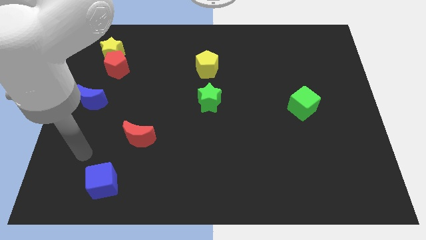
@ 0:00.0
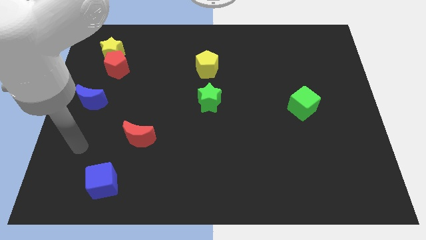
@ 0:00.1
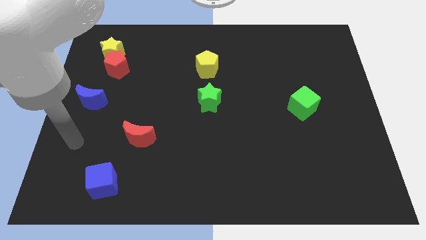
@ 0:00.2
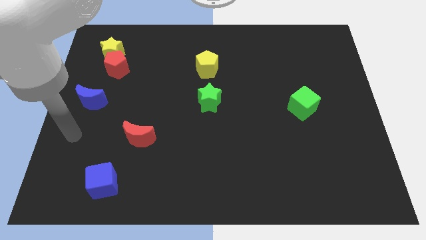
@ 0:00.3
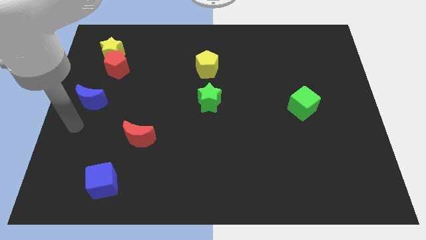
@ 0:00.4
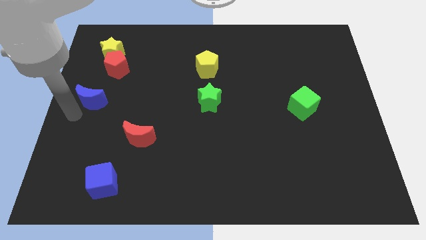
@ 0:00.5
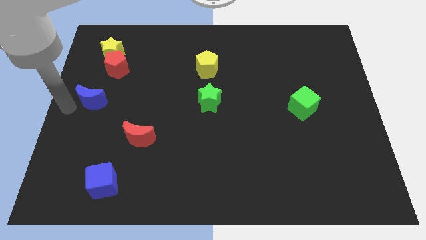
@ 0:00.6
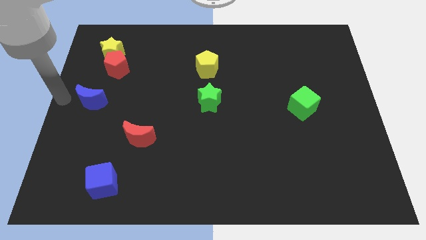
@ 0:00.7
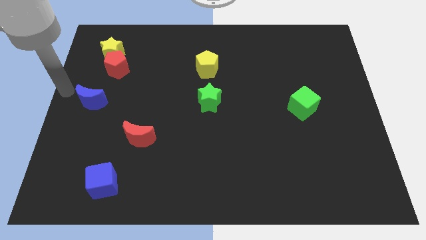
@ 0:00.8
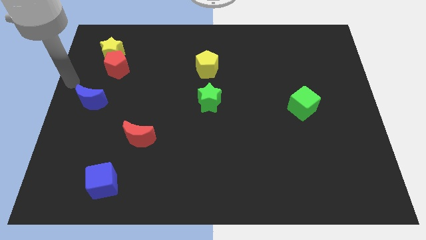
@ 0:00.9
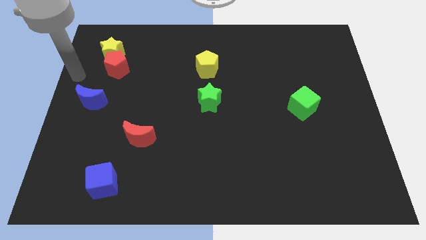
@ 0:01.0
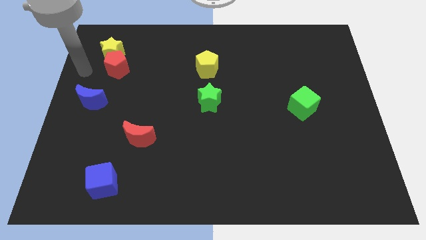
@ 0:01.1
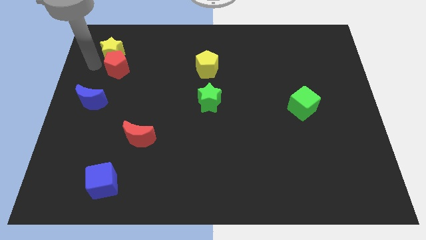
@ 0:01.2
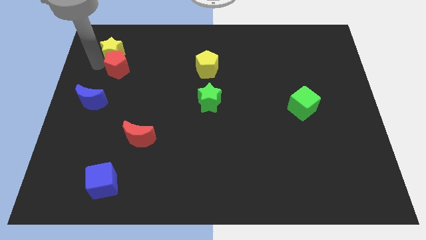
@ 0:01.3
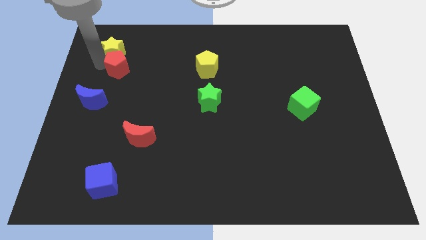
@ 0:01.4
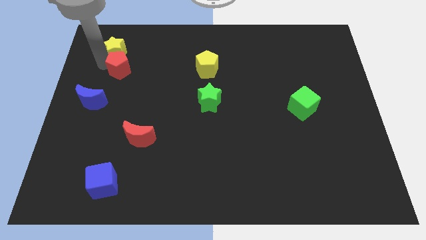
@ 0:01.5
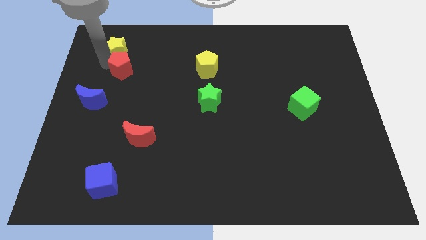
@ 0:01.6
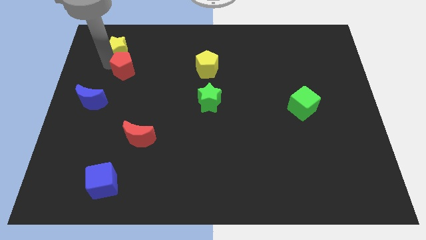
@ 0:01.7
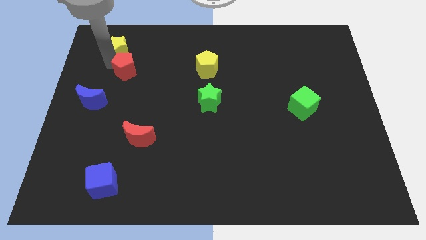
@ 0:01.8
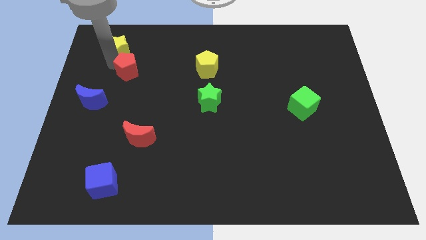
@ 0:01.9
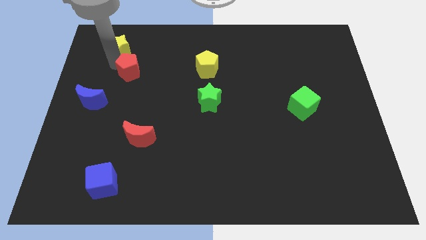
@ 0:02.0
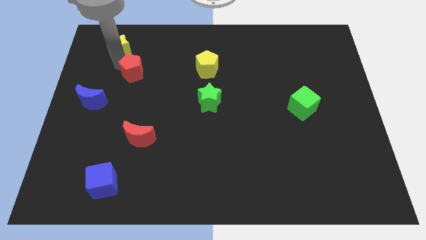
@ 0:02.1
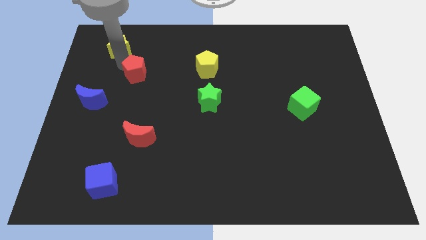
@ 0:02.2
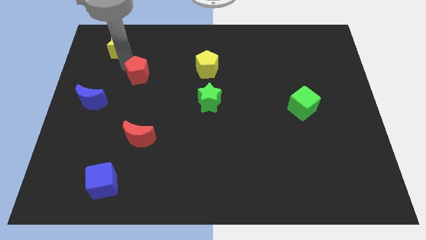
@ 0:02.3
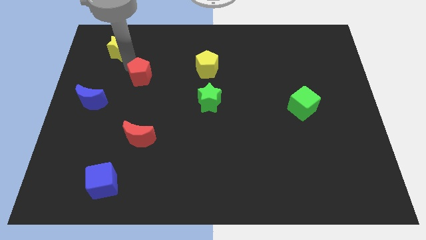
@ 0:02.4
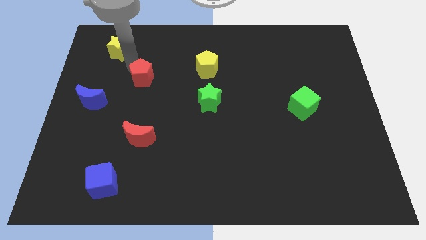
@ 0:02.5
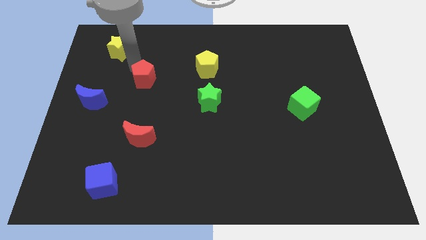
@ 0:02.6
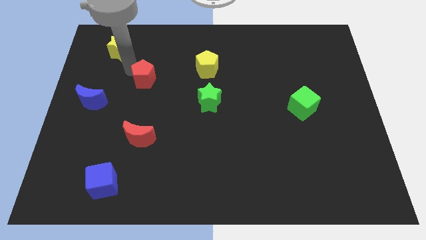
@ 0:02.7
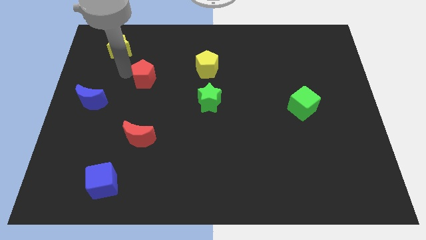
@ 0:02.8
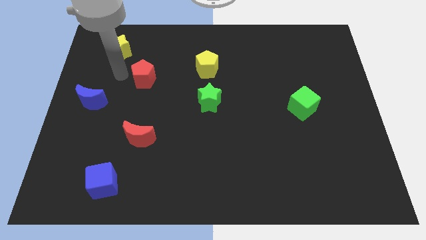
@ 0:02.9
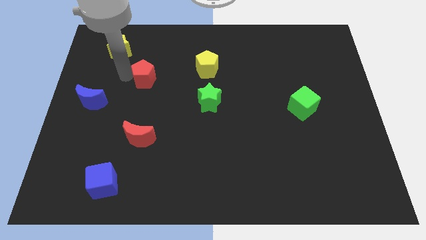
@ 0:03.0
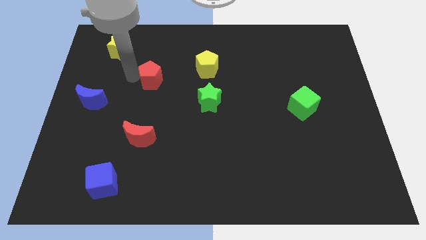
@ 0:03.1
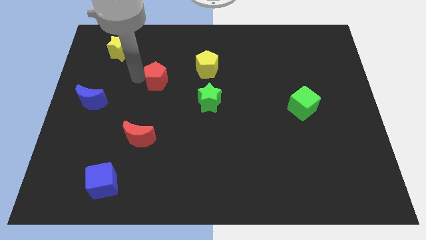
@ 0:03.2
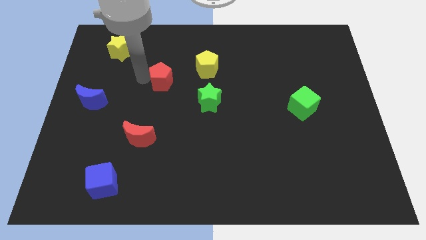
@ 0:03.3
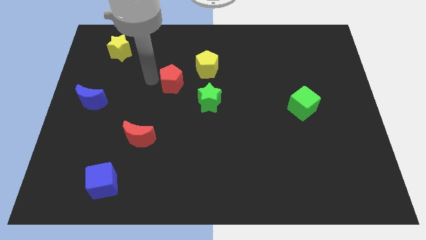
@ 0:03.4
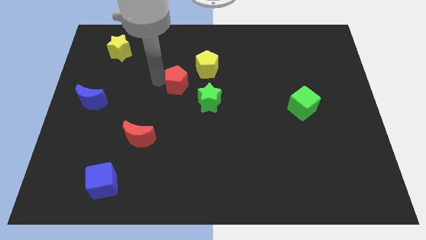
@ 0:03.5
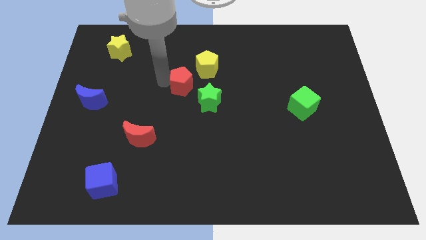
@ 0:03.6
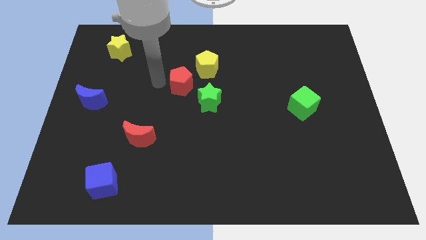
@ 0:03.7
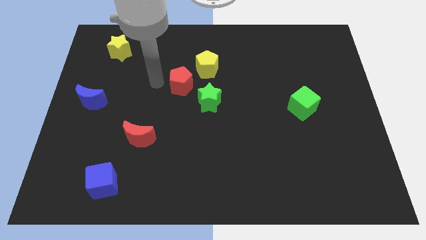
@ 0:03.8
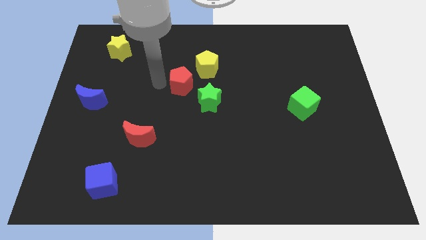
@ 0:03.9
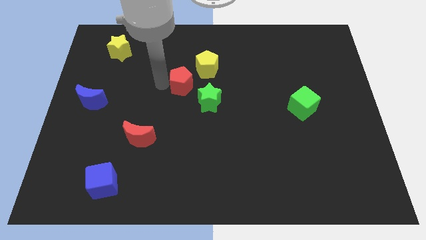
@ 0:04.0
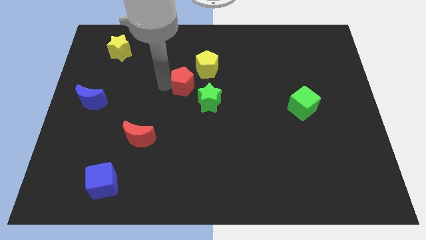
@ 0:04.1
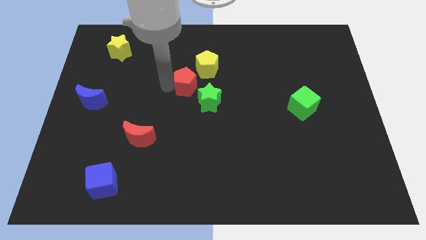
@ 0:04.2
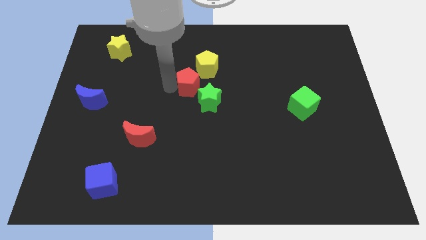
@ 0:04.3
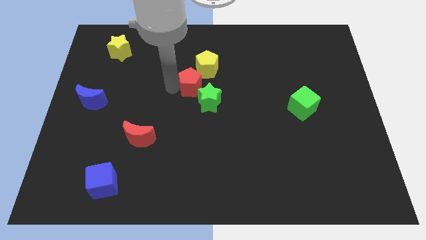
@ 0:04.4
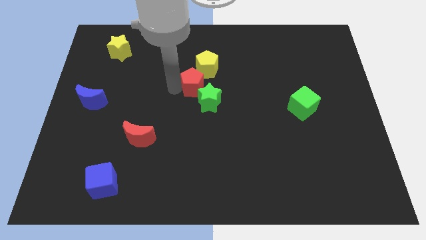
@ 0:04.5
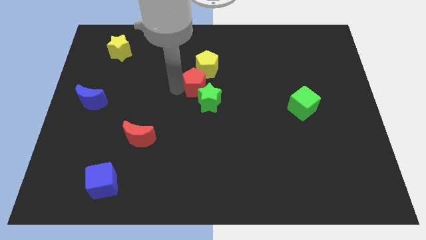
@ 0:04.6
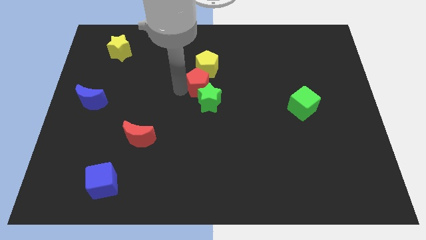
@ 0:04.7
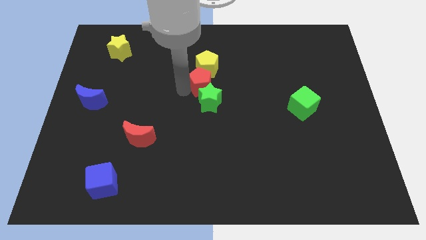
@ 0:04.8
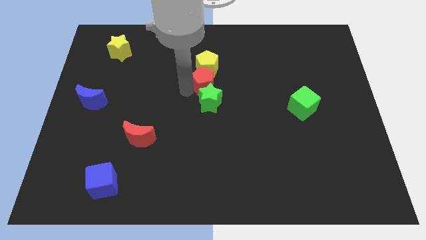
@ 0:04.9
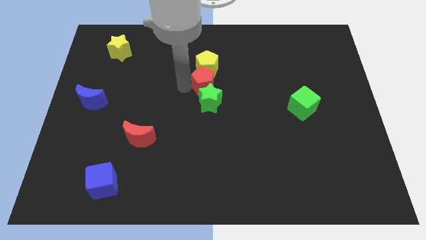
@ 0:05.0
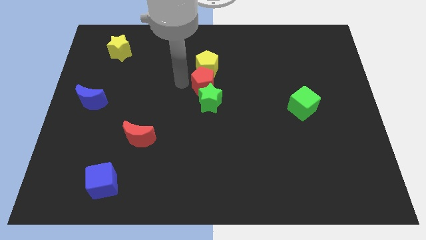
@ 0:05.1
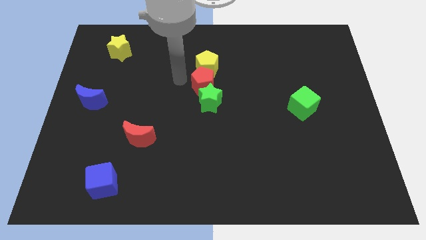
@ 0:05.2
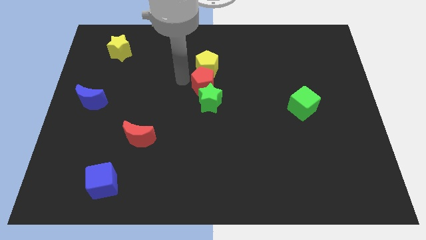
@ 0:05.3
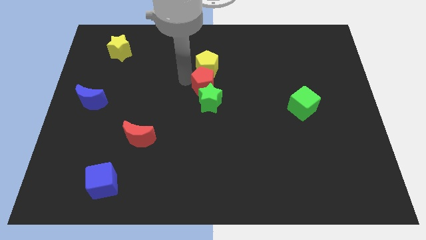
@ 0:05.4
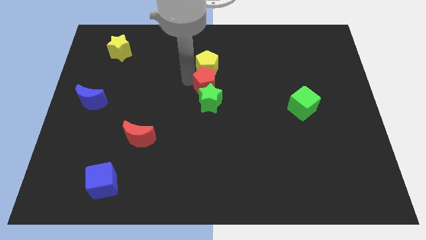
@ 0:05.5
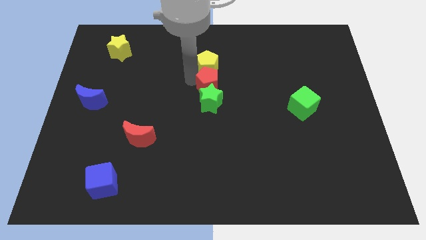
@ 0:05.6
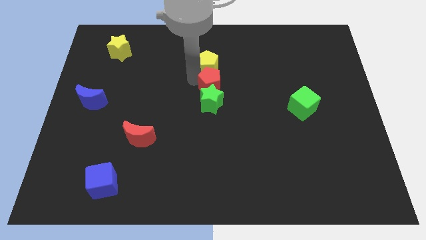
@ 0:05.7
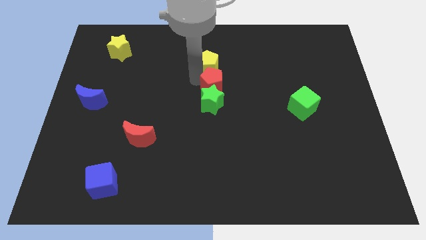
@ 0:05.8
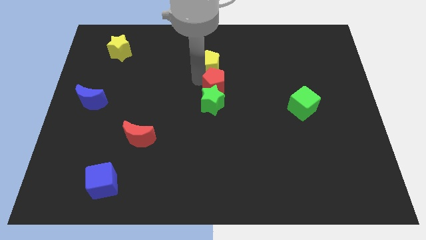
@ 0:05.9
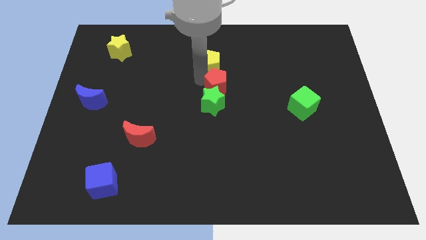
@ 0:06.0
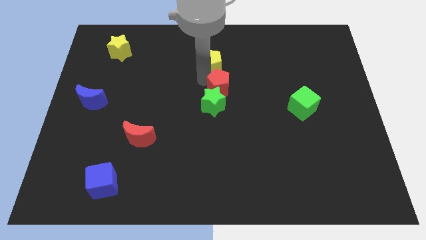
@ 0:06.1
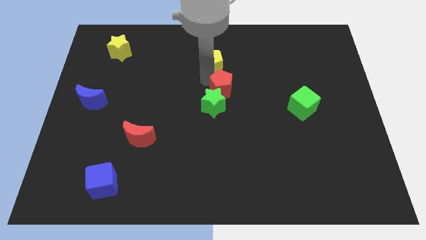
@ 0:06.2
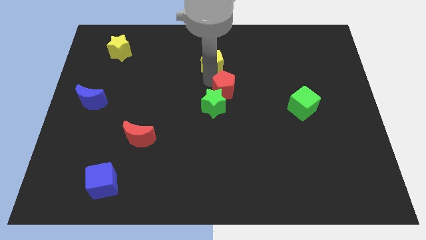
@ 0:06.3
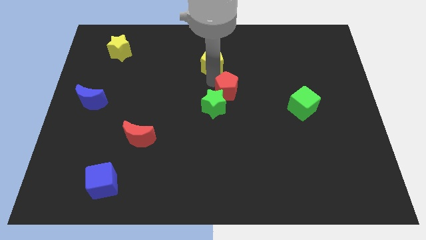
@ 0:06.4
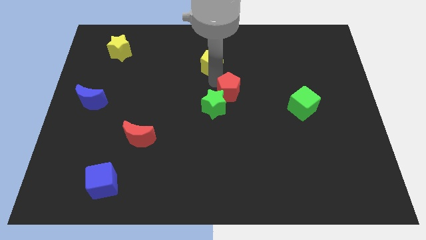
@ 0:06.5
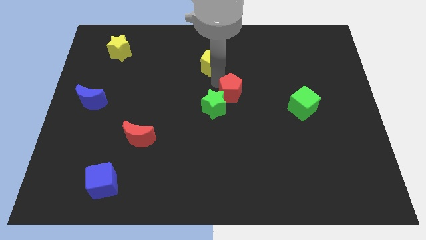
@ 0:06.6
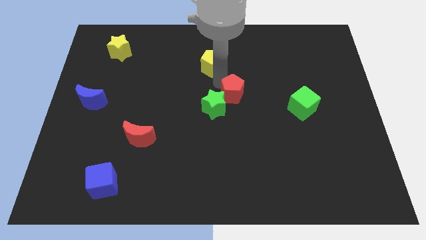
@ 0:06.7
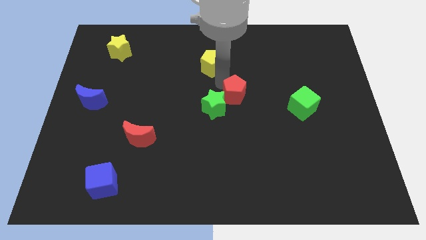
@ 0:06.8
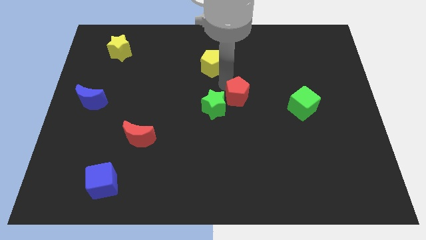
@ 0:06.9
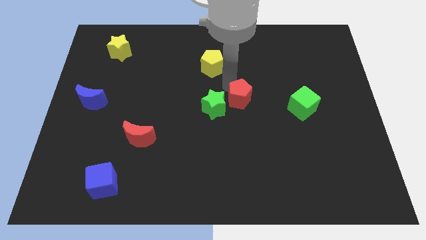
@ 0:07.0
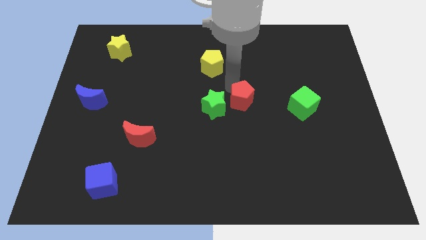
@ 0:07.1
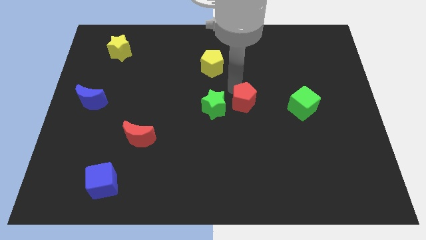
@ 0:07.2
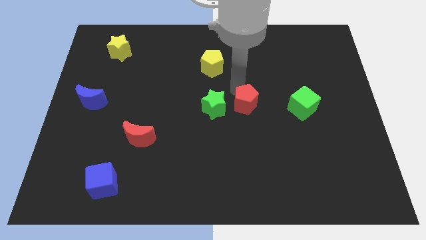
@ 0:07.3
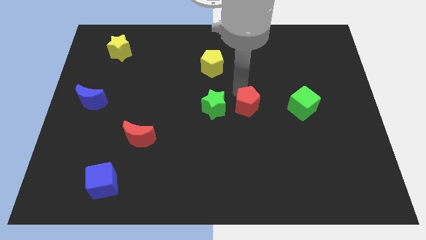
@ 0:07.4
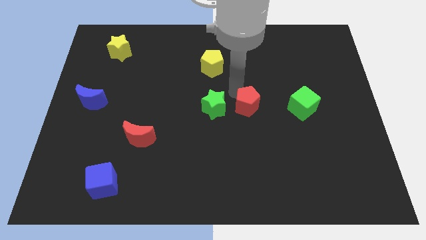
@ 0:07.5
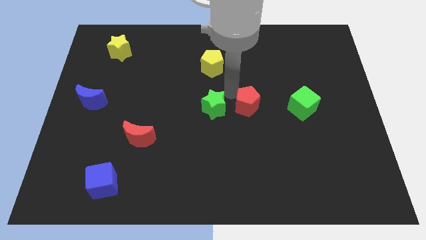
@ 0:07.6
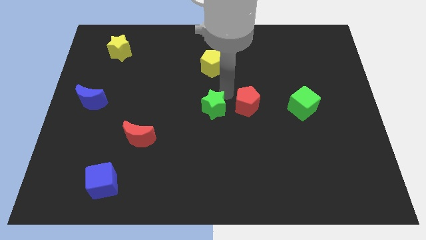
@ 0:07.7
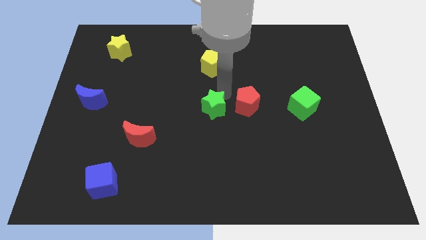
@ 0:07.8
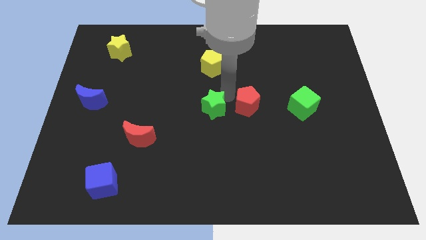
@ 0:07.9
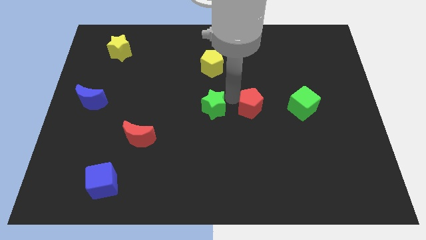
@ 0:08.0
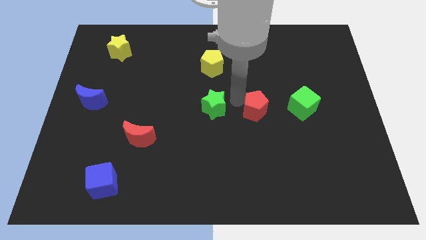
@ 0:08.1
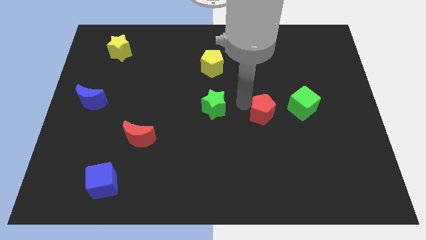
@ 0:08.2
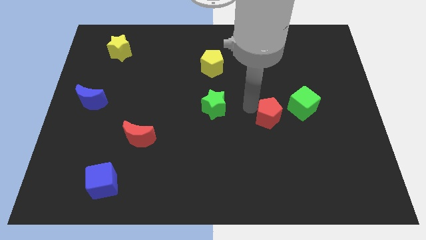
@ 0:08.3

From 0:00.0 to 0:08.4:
put the red pentagon to the bottom left side of the green cube
